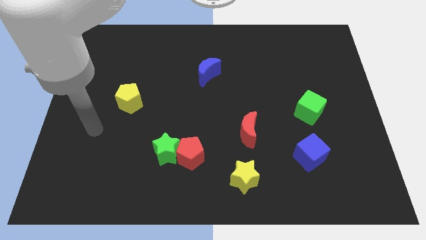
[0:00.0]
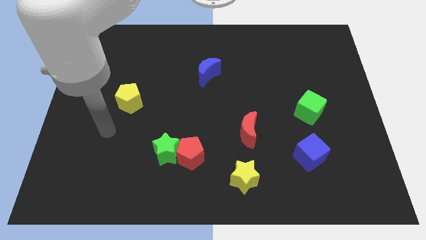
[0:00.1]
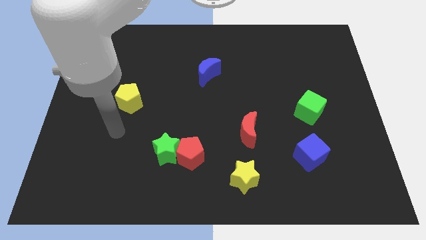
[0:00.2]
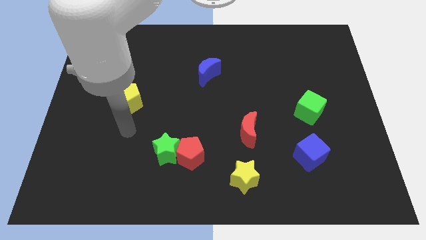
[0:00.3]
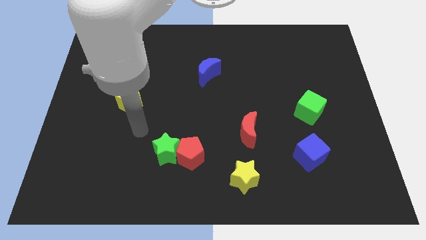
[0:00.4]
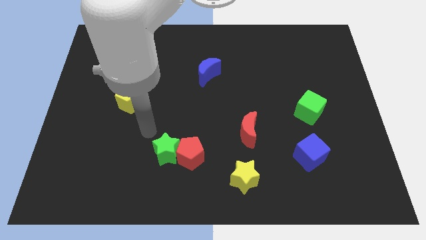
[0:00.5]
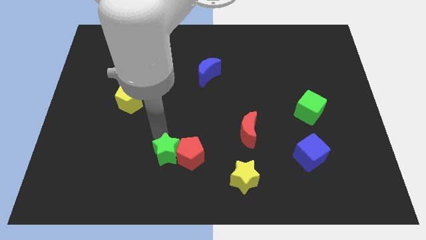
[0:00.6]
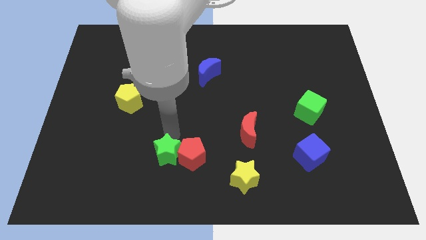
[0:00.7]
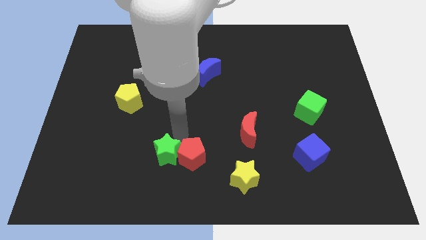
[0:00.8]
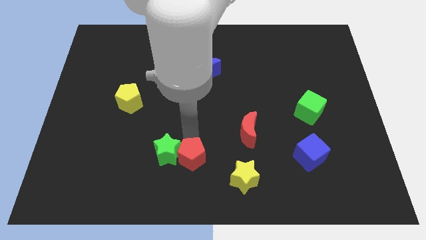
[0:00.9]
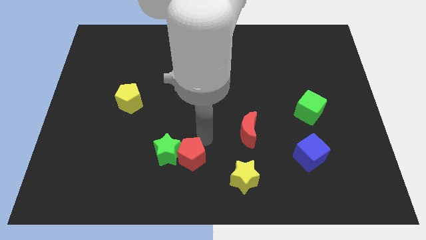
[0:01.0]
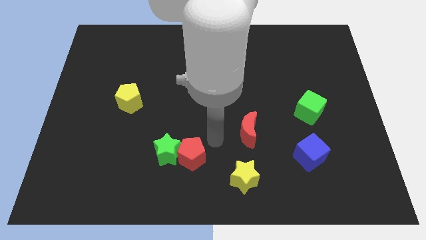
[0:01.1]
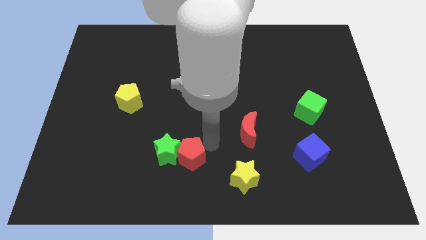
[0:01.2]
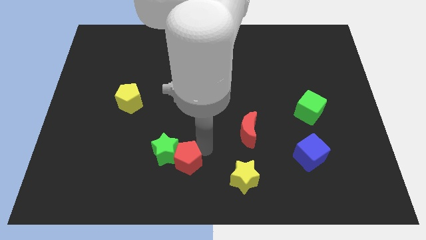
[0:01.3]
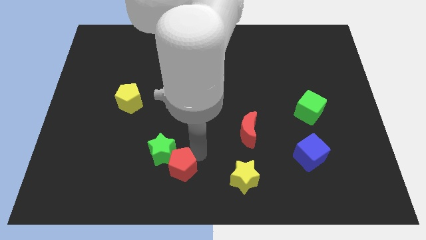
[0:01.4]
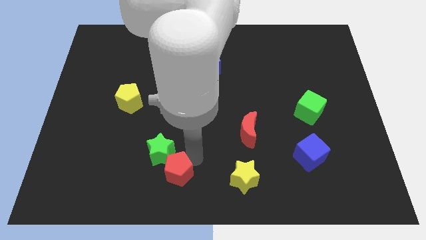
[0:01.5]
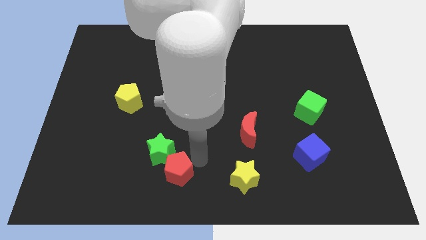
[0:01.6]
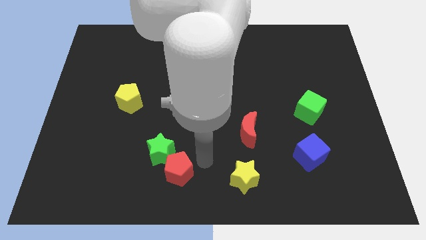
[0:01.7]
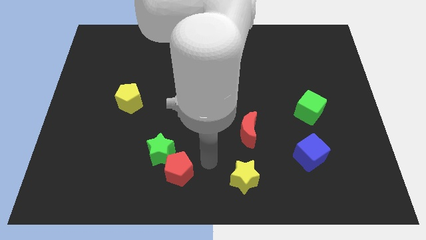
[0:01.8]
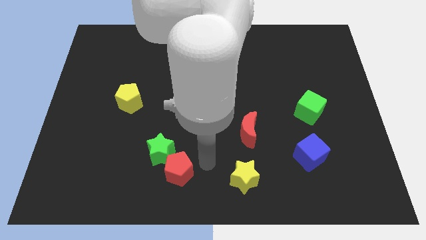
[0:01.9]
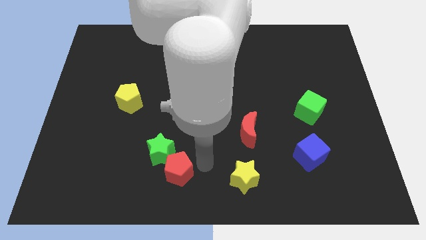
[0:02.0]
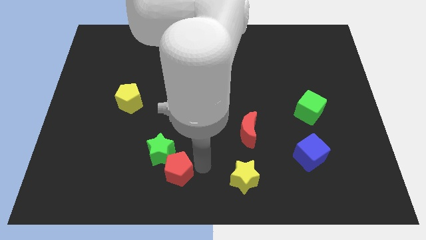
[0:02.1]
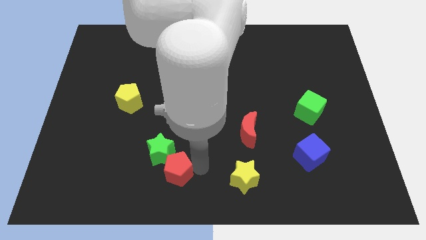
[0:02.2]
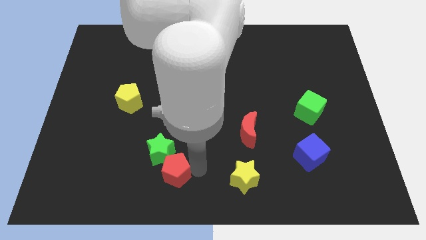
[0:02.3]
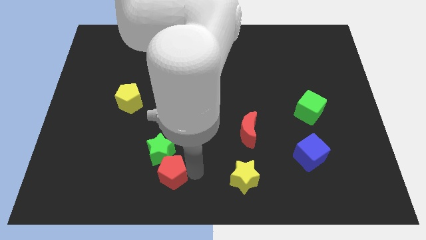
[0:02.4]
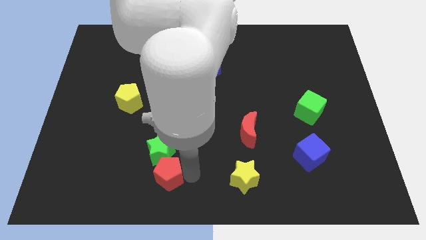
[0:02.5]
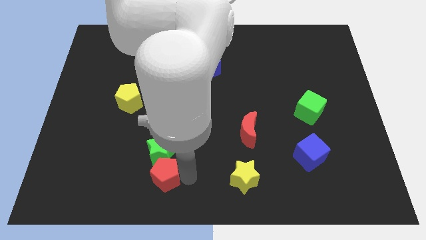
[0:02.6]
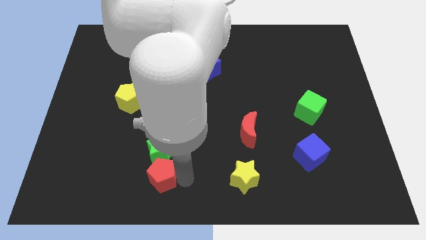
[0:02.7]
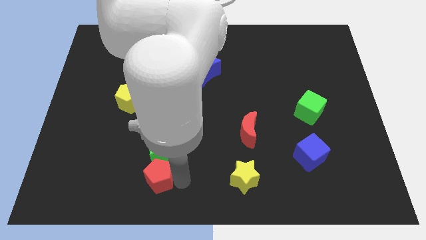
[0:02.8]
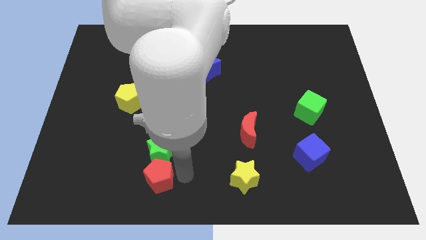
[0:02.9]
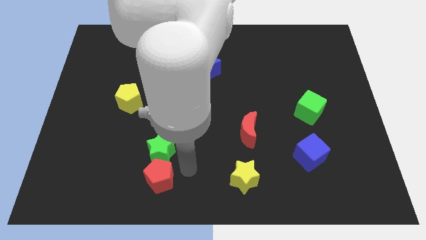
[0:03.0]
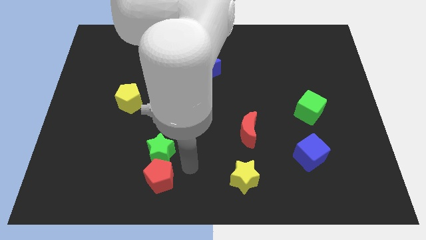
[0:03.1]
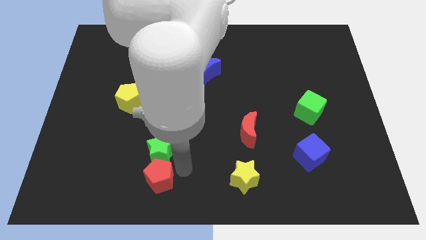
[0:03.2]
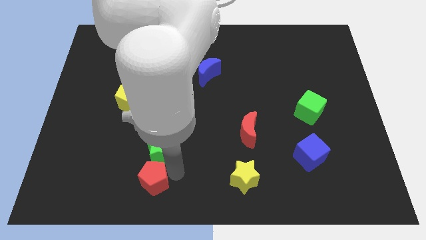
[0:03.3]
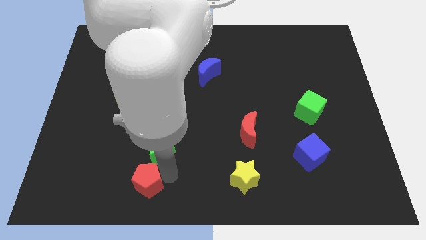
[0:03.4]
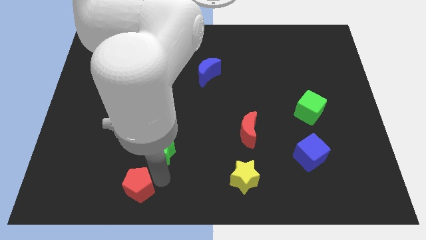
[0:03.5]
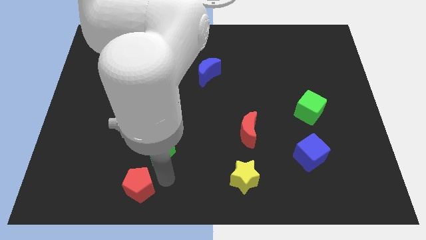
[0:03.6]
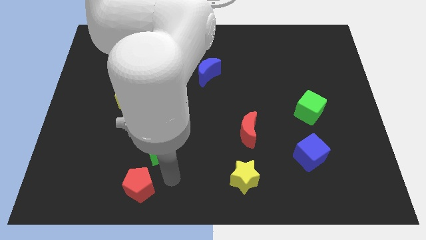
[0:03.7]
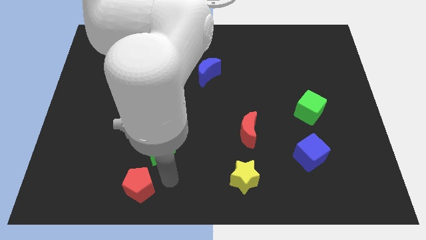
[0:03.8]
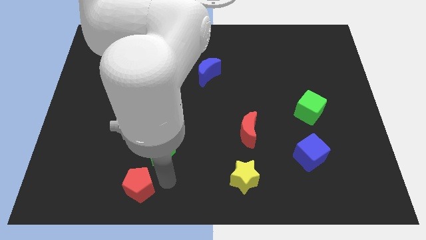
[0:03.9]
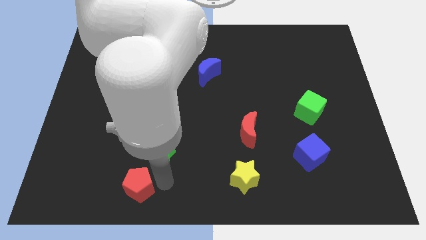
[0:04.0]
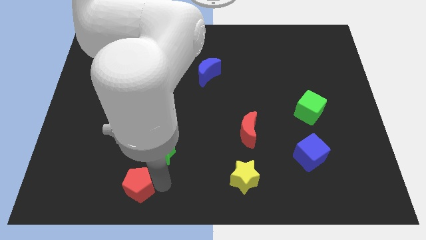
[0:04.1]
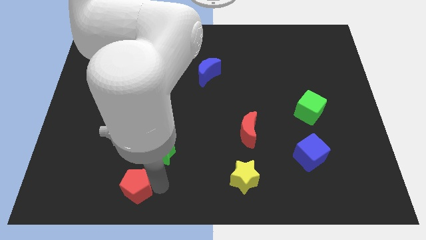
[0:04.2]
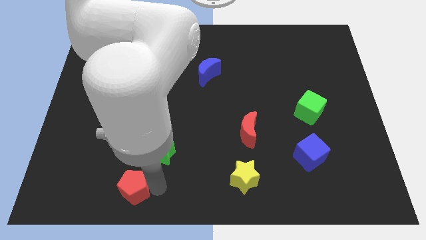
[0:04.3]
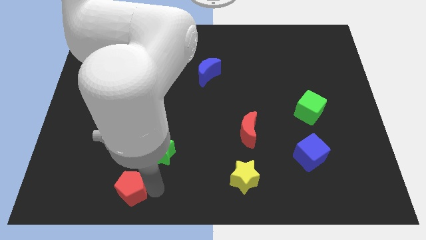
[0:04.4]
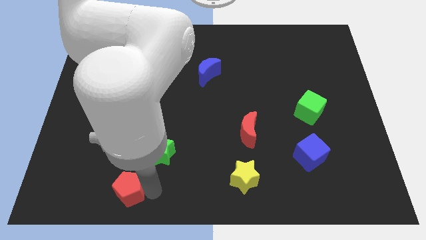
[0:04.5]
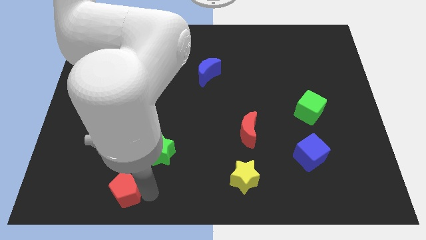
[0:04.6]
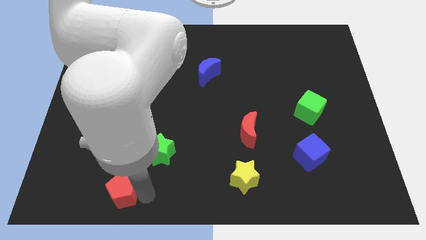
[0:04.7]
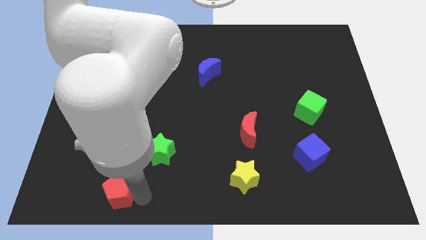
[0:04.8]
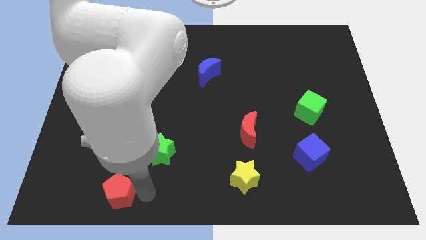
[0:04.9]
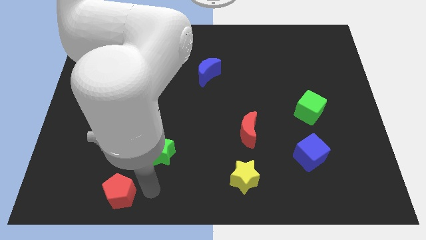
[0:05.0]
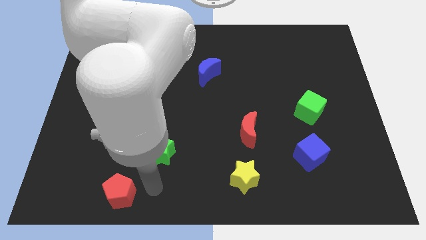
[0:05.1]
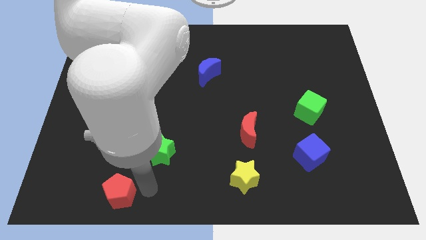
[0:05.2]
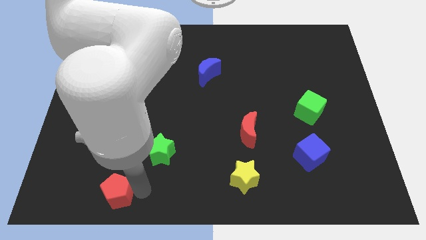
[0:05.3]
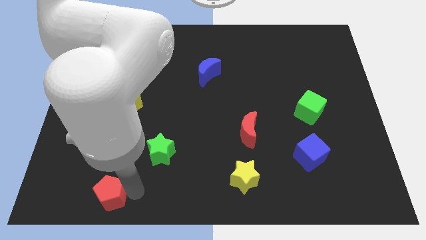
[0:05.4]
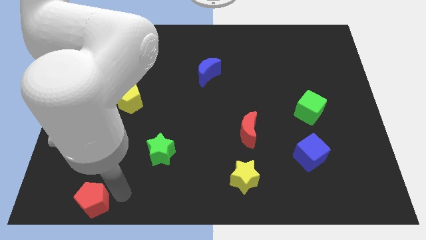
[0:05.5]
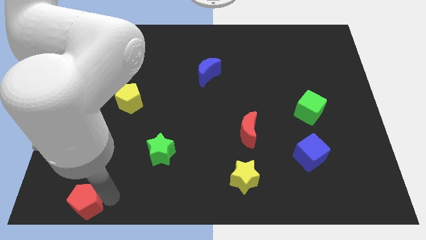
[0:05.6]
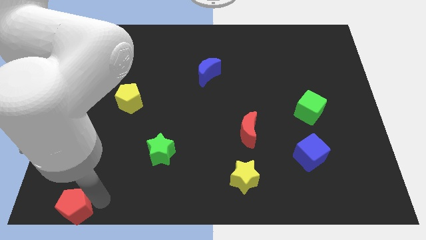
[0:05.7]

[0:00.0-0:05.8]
move the red pentagon to the lower left corner

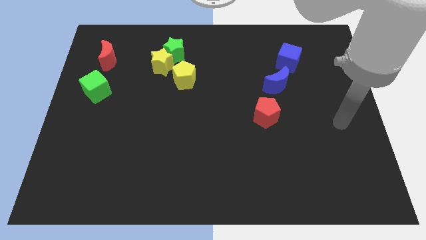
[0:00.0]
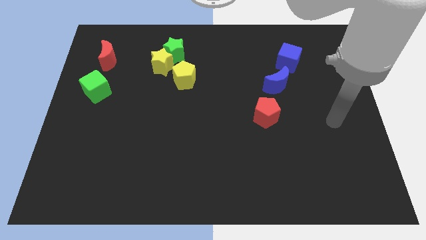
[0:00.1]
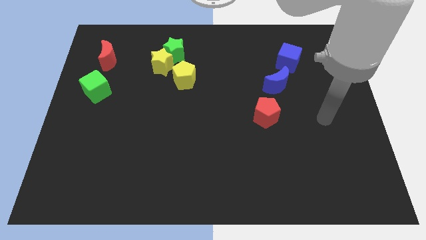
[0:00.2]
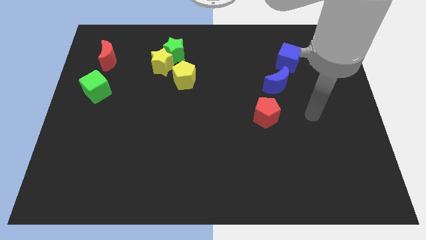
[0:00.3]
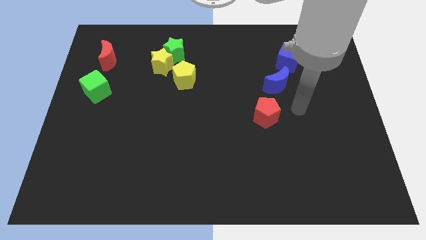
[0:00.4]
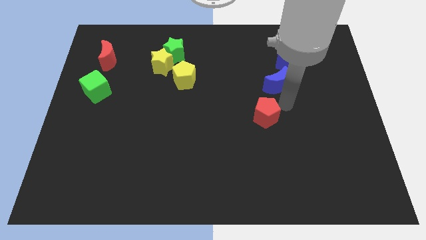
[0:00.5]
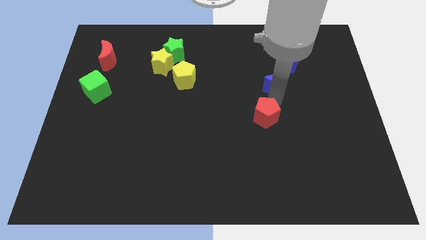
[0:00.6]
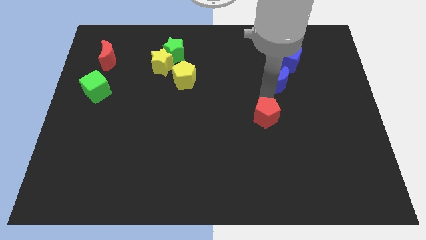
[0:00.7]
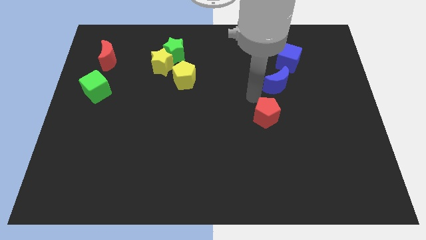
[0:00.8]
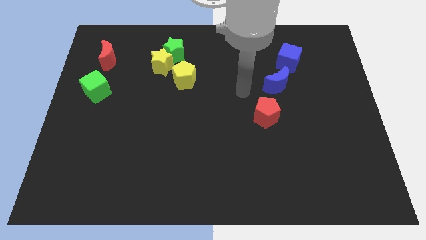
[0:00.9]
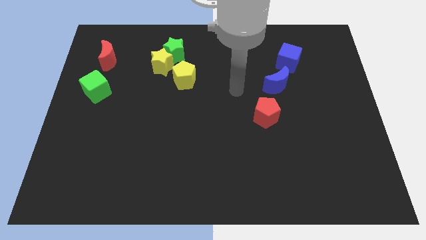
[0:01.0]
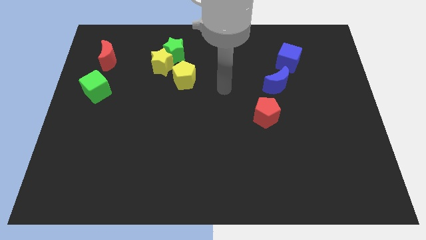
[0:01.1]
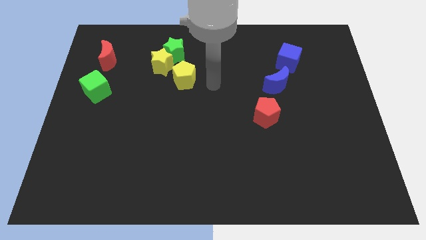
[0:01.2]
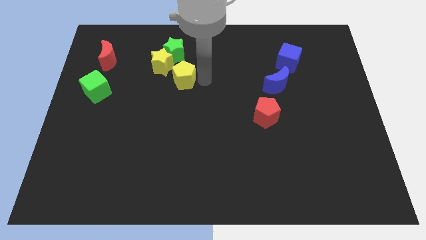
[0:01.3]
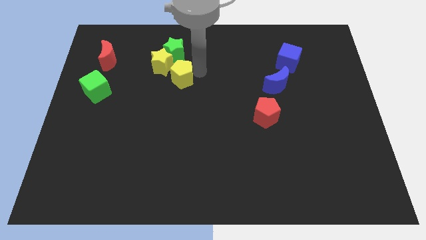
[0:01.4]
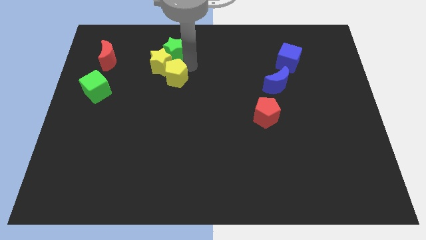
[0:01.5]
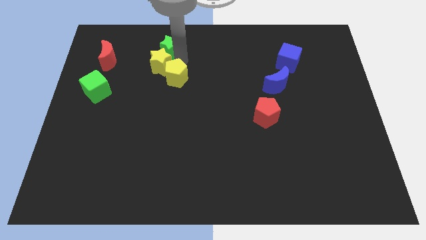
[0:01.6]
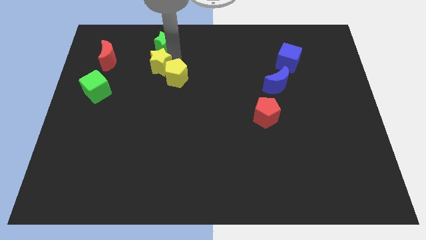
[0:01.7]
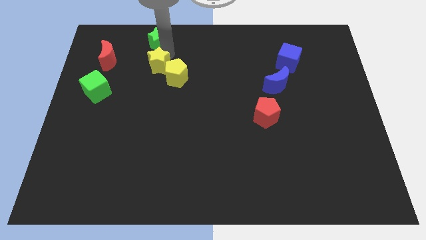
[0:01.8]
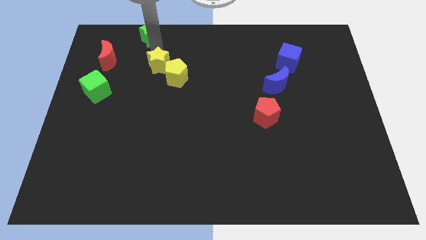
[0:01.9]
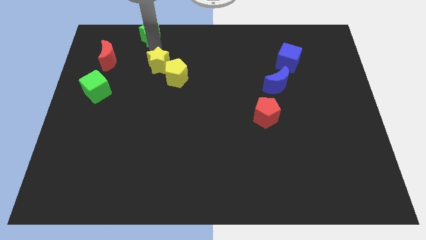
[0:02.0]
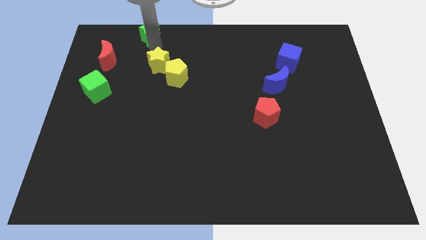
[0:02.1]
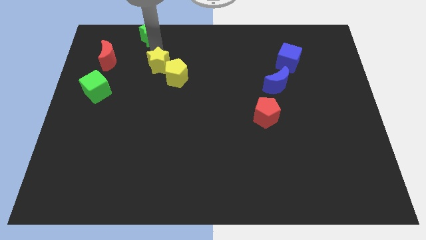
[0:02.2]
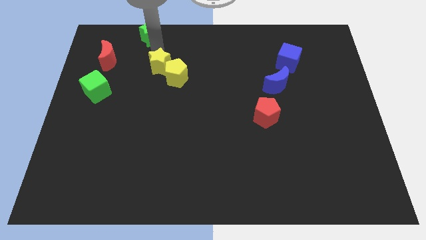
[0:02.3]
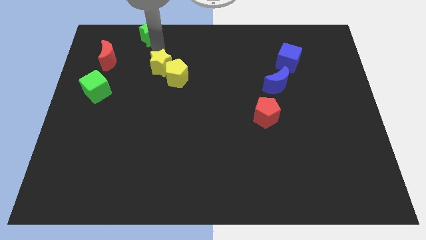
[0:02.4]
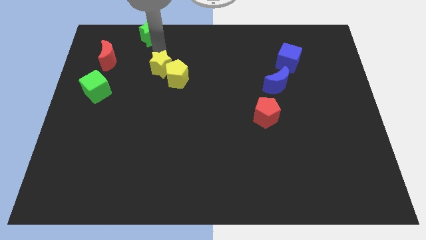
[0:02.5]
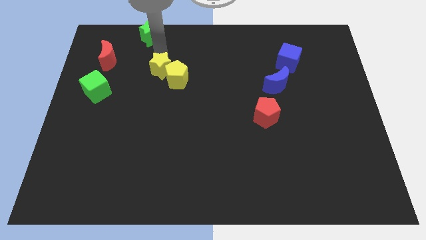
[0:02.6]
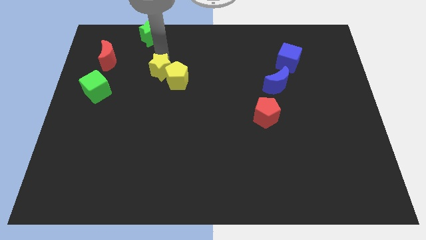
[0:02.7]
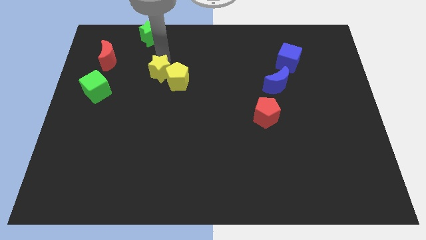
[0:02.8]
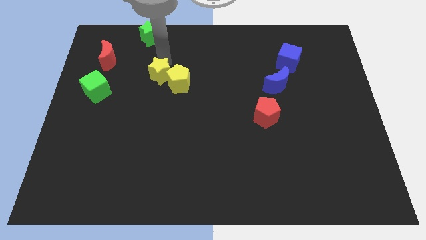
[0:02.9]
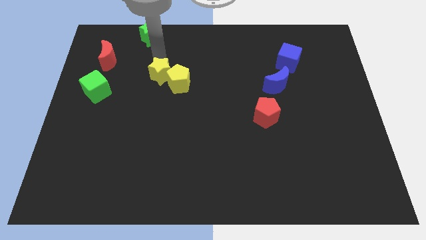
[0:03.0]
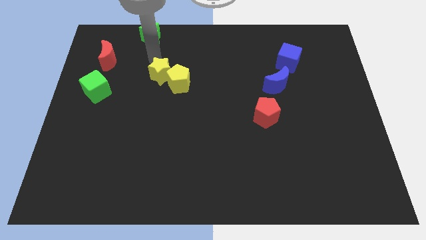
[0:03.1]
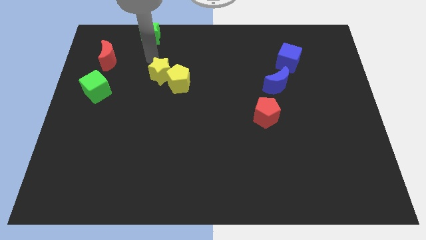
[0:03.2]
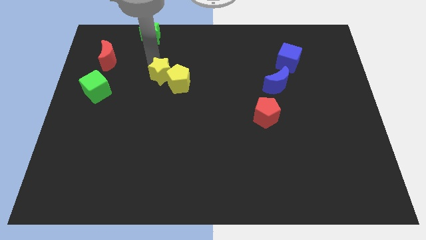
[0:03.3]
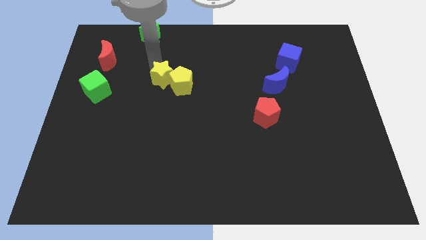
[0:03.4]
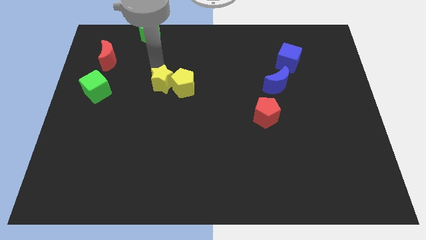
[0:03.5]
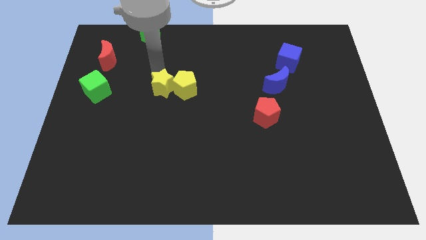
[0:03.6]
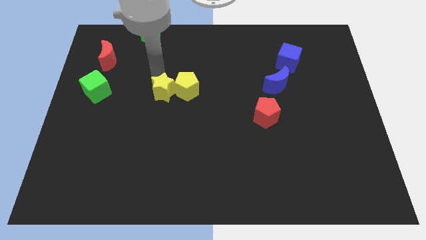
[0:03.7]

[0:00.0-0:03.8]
move the yellow star to the middle of the board
